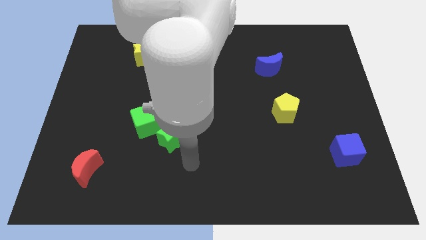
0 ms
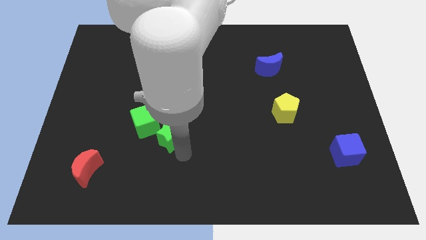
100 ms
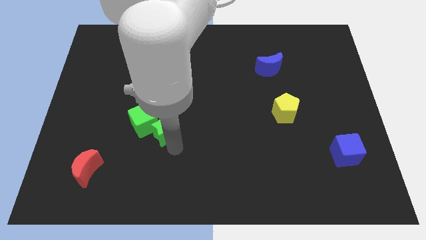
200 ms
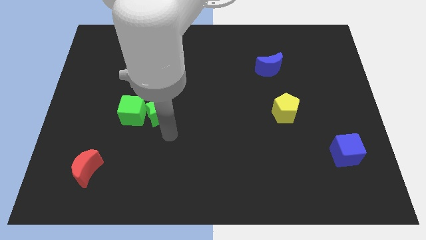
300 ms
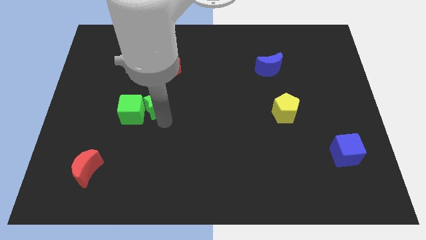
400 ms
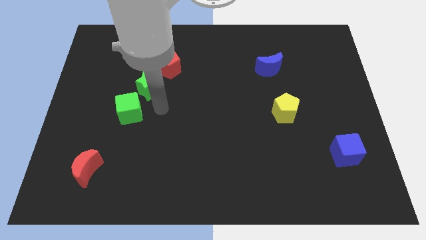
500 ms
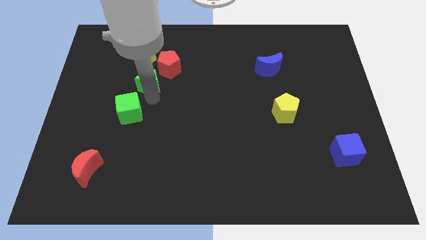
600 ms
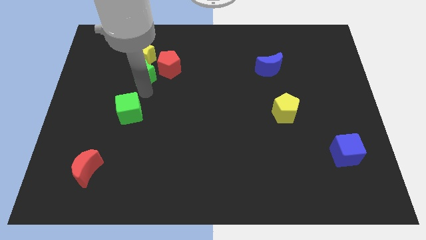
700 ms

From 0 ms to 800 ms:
separate the green cube from the green star

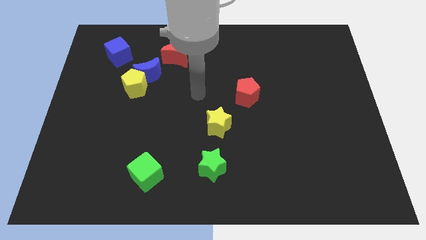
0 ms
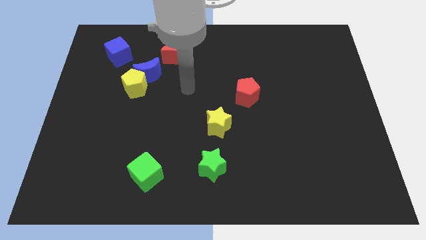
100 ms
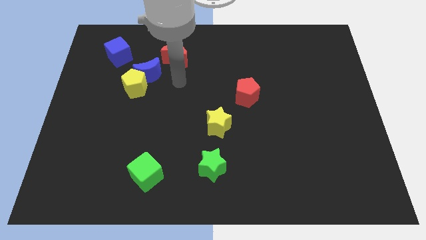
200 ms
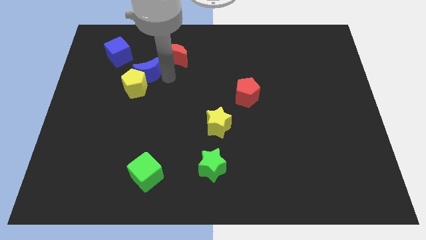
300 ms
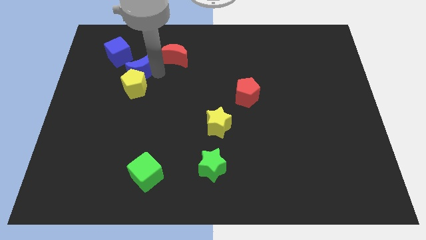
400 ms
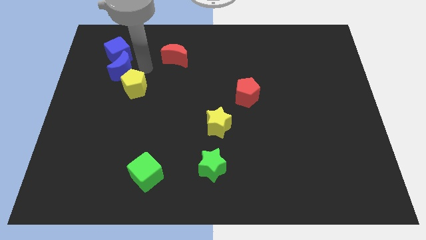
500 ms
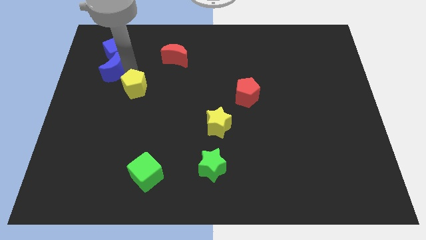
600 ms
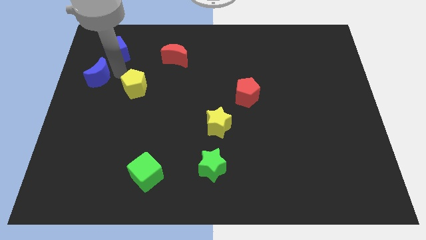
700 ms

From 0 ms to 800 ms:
move the yellow pentagon away from the blue moon

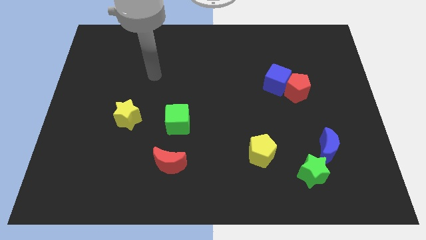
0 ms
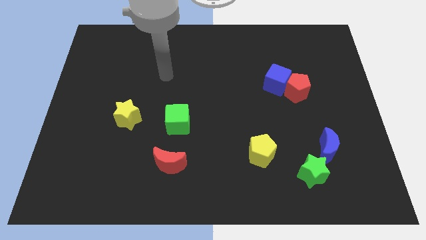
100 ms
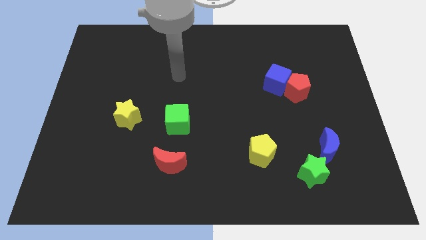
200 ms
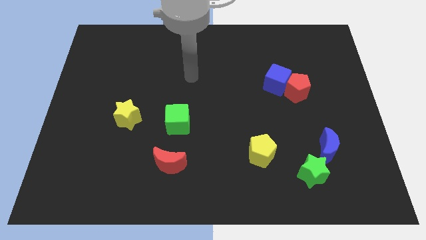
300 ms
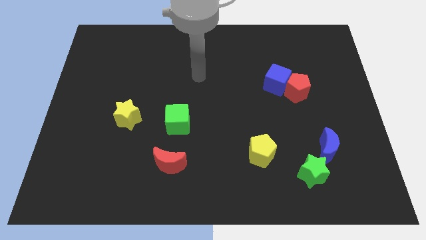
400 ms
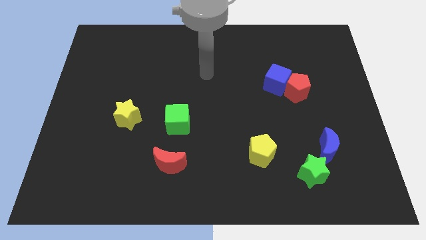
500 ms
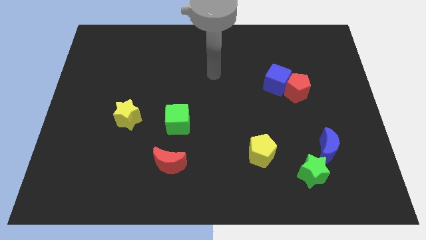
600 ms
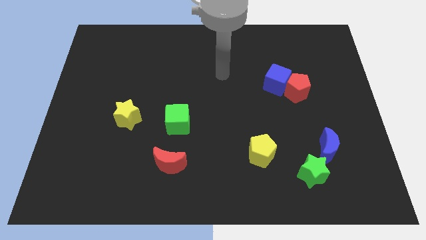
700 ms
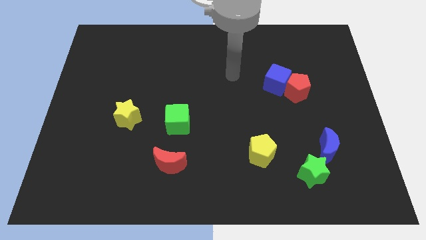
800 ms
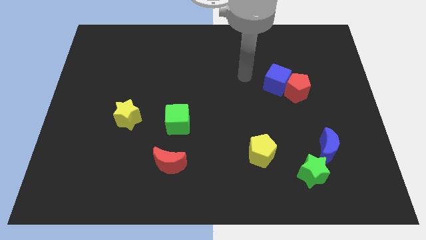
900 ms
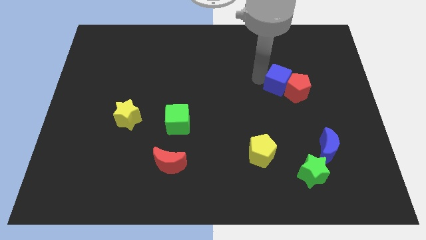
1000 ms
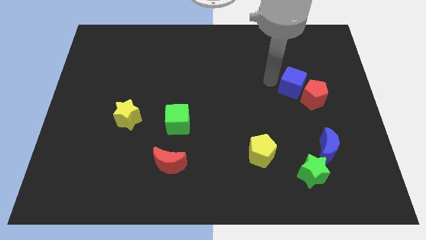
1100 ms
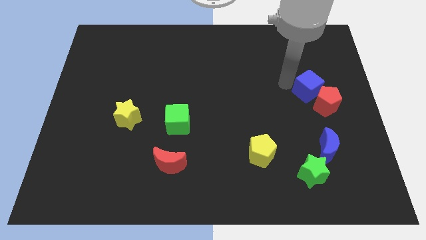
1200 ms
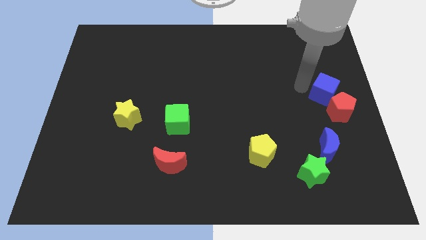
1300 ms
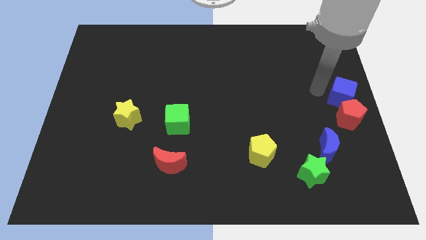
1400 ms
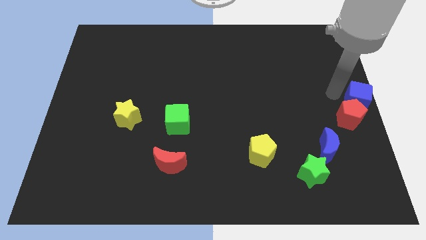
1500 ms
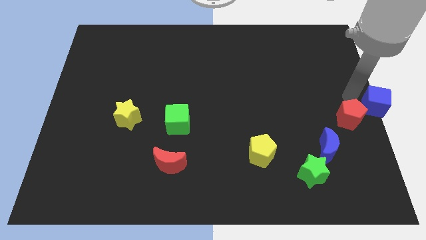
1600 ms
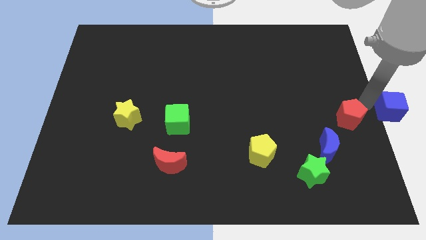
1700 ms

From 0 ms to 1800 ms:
pull the red pentagon apart from the blue cube

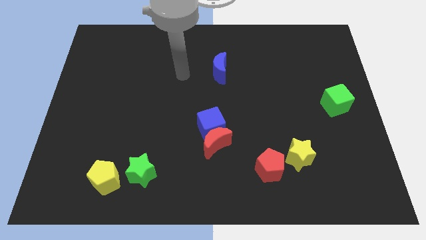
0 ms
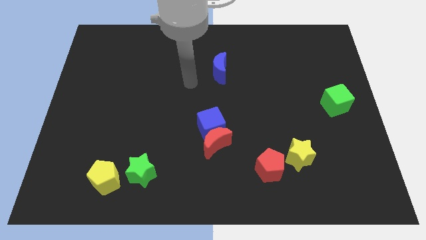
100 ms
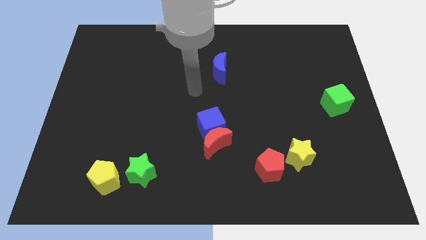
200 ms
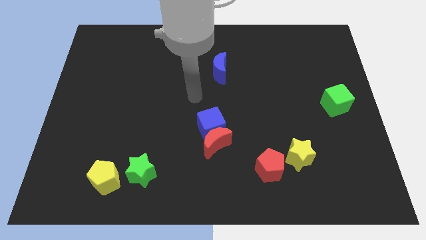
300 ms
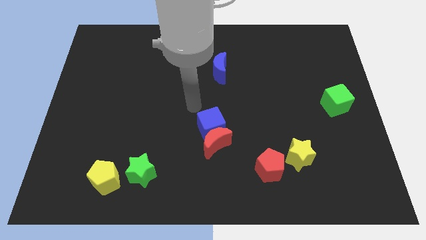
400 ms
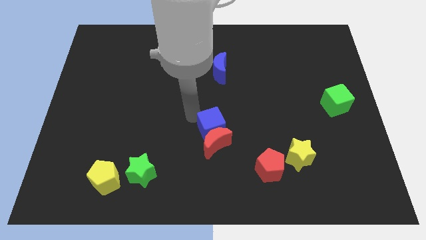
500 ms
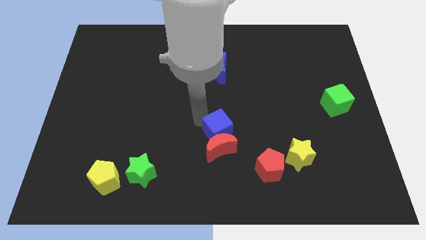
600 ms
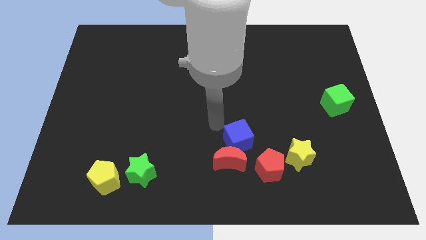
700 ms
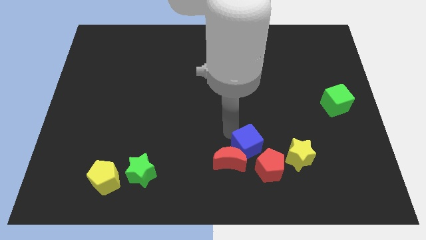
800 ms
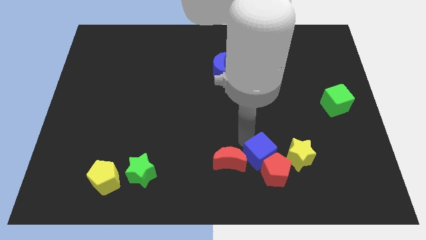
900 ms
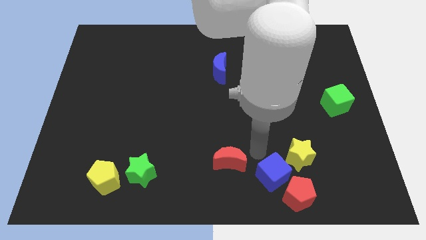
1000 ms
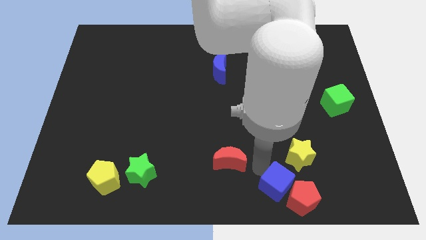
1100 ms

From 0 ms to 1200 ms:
pull the red moon apart from the blue cube

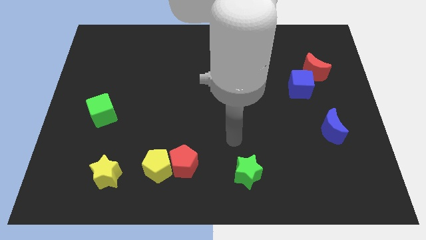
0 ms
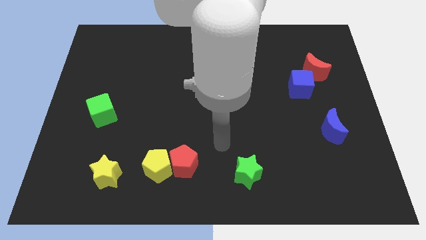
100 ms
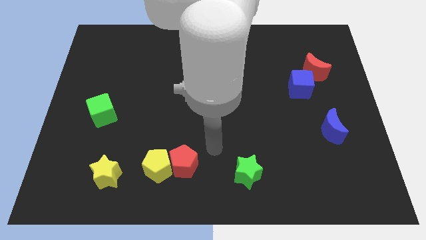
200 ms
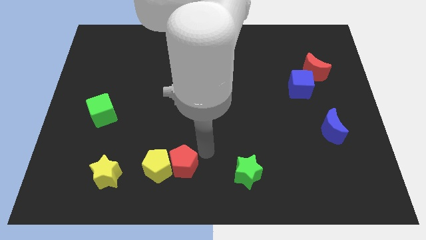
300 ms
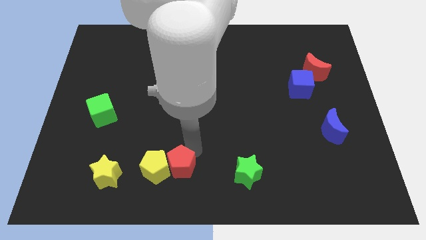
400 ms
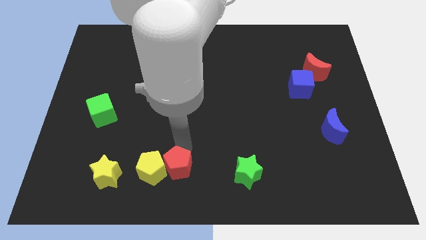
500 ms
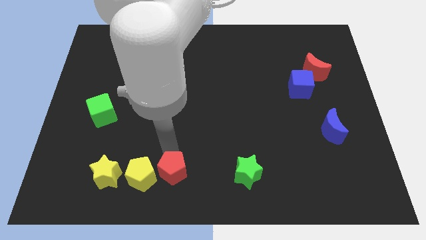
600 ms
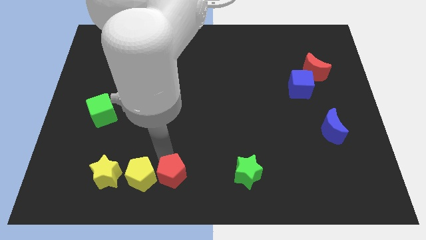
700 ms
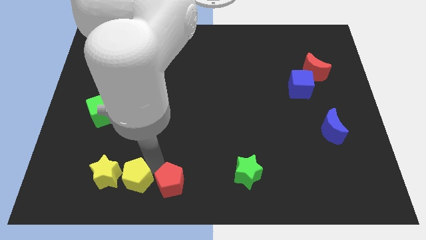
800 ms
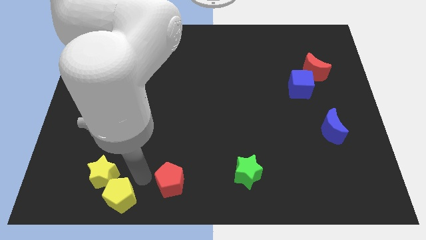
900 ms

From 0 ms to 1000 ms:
move the red pentagon away from the yellow pentagon

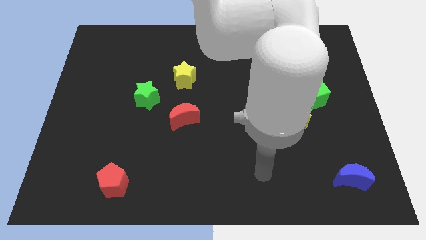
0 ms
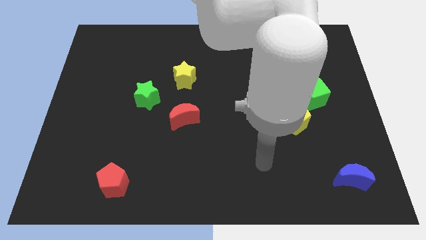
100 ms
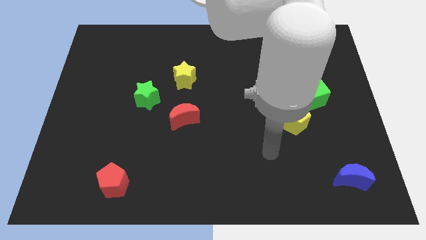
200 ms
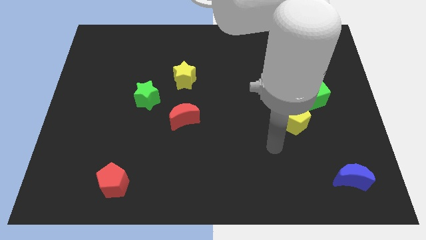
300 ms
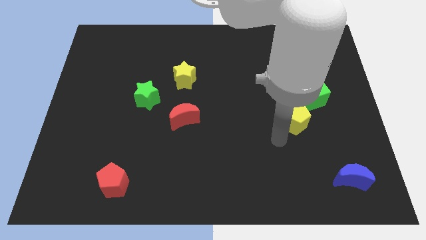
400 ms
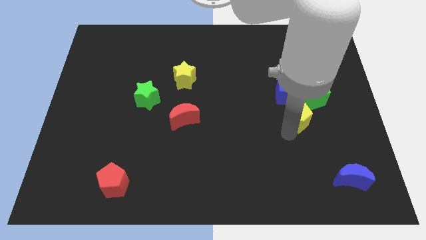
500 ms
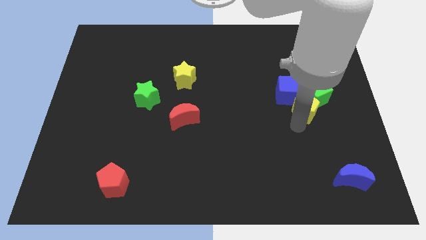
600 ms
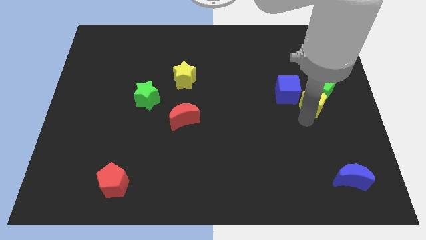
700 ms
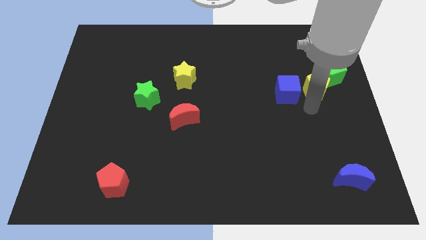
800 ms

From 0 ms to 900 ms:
move the blue cube away from the green cube and yellow pentagon

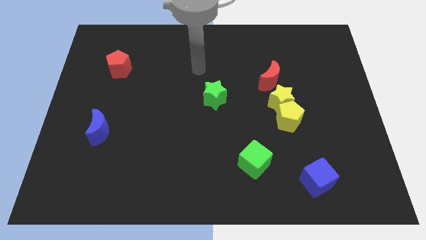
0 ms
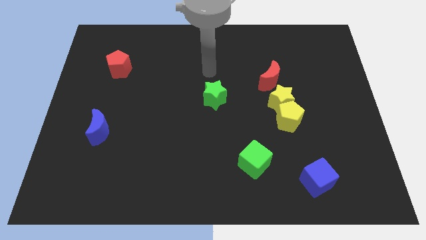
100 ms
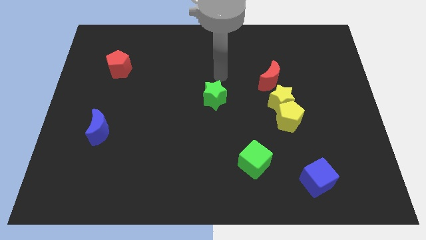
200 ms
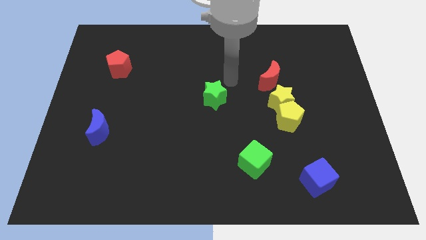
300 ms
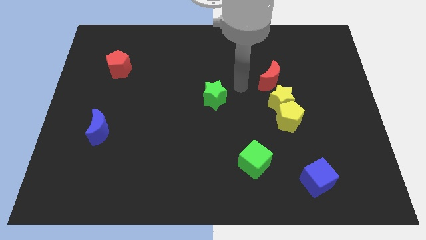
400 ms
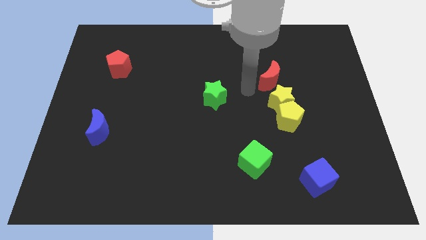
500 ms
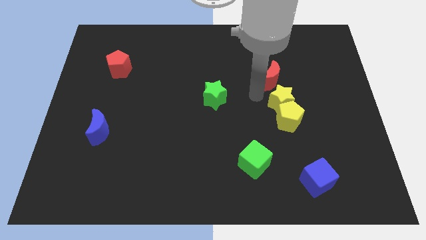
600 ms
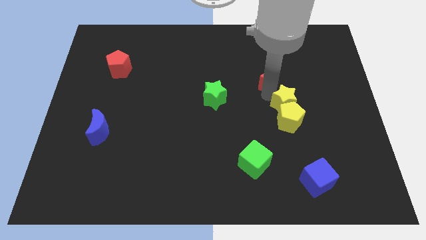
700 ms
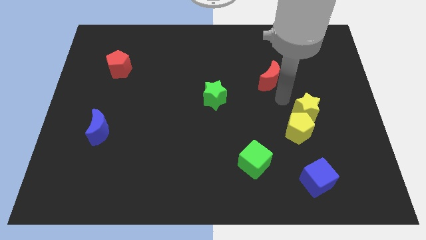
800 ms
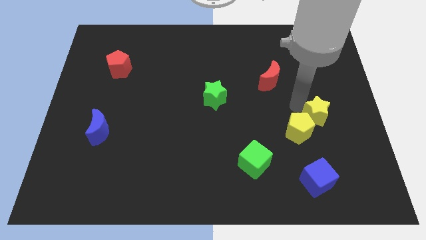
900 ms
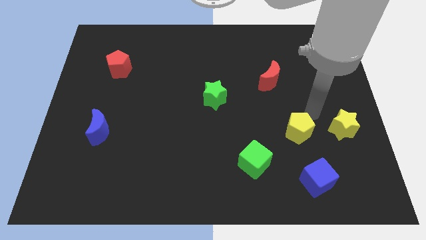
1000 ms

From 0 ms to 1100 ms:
pull the yellow pentagon apart from the yellow star

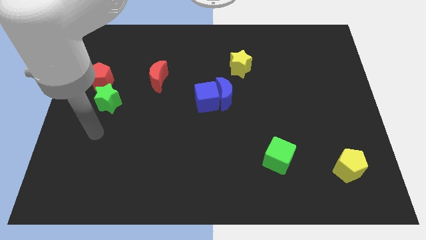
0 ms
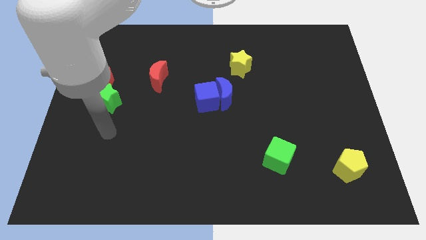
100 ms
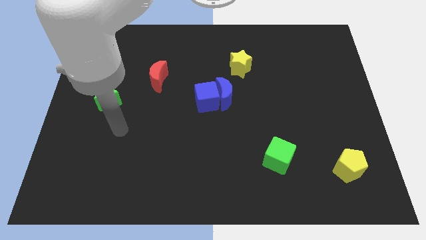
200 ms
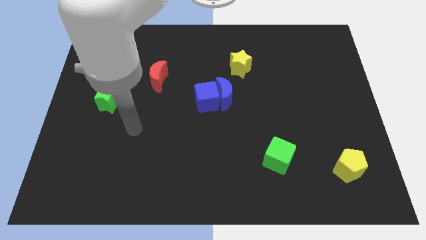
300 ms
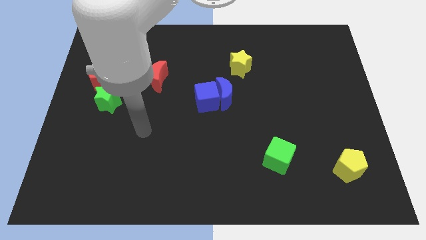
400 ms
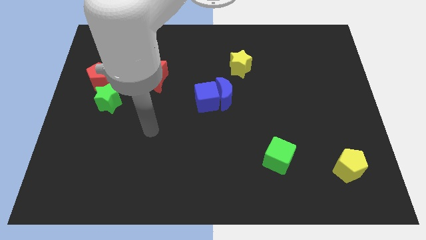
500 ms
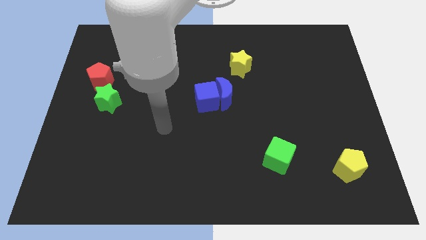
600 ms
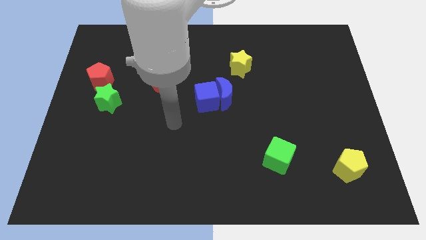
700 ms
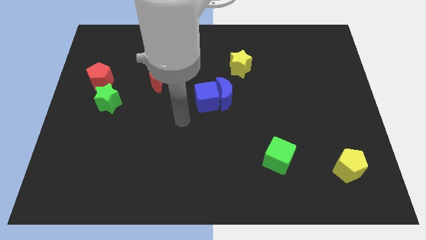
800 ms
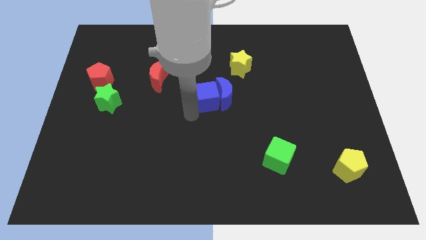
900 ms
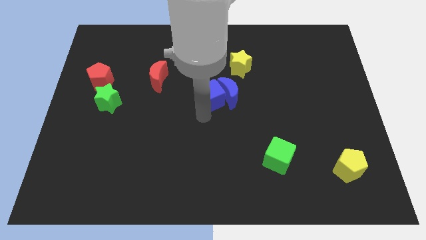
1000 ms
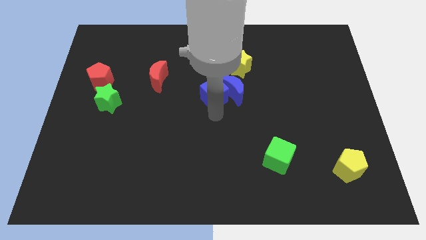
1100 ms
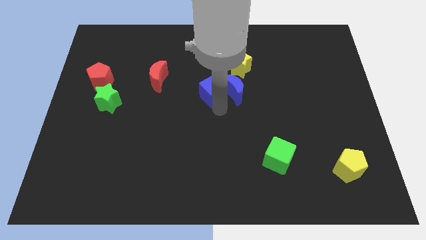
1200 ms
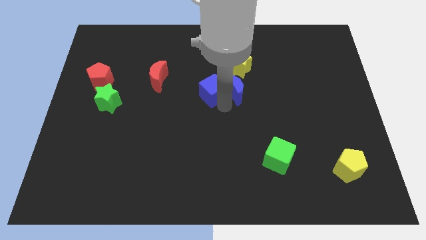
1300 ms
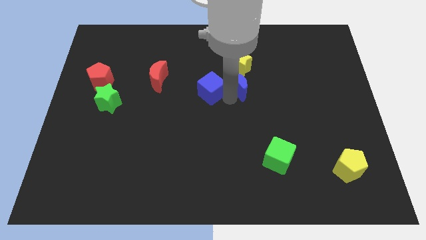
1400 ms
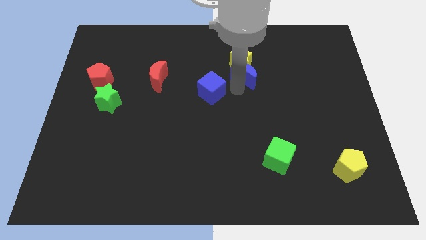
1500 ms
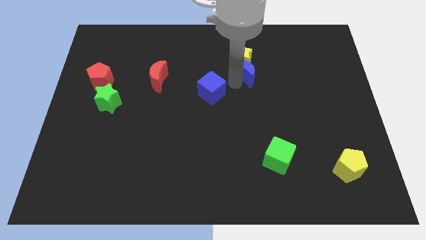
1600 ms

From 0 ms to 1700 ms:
pull the blue cube apart from the blue moon
